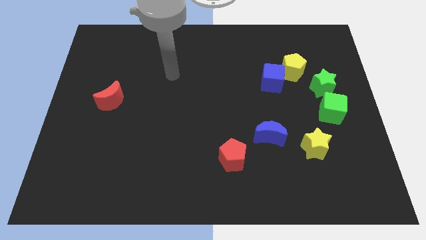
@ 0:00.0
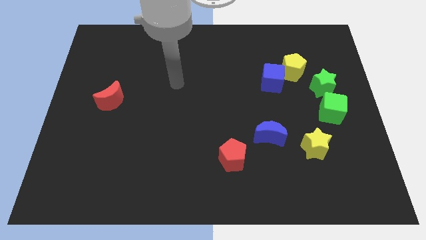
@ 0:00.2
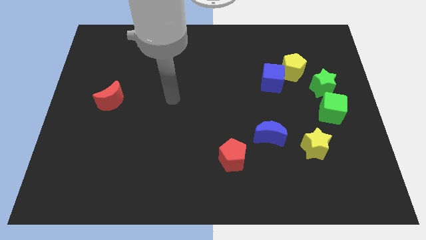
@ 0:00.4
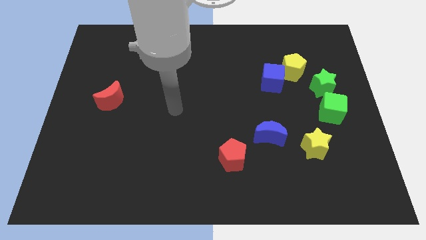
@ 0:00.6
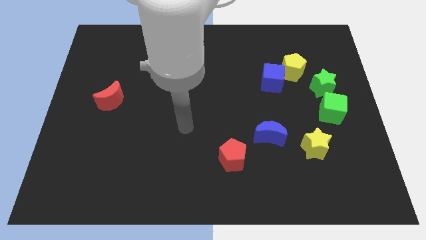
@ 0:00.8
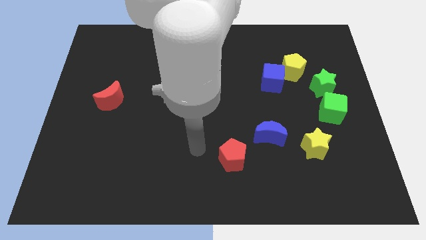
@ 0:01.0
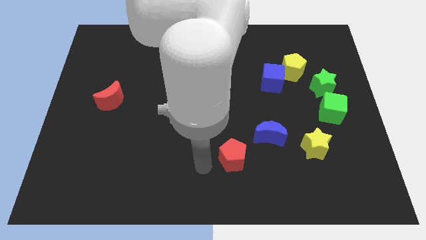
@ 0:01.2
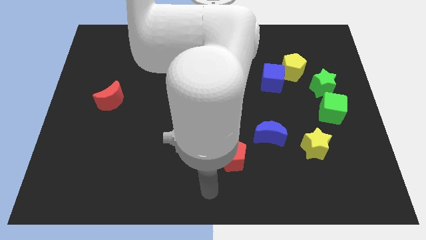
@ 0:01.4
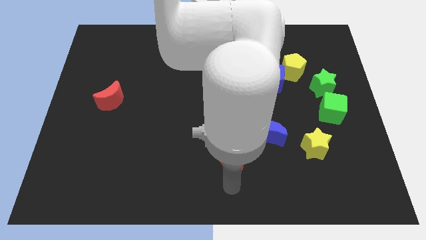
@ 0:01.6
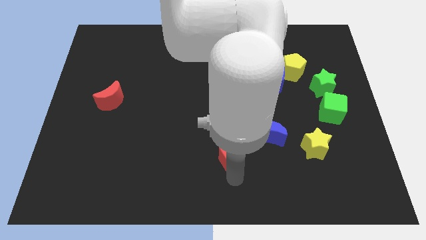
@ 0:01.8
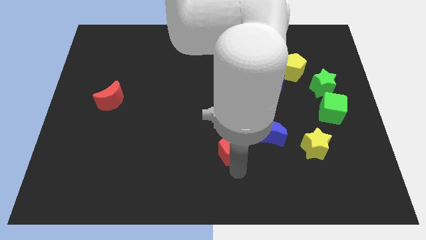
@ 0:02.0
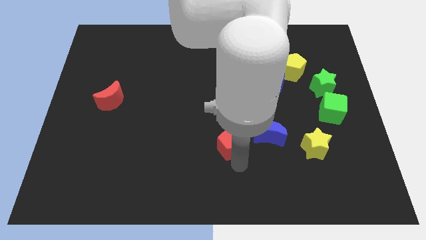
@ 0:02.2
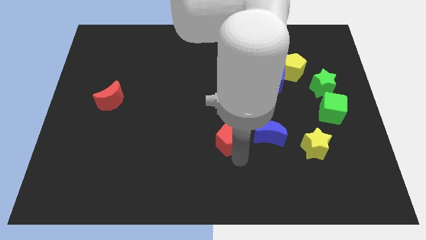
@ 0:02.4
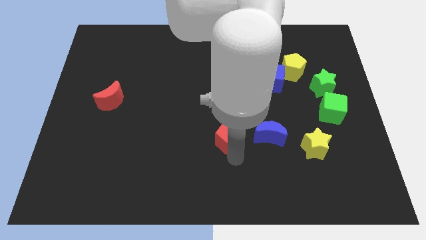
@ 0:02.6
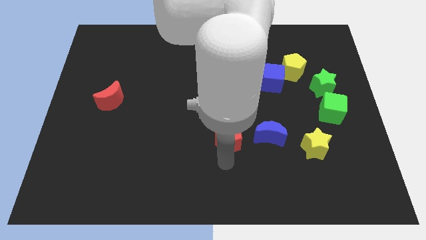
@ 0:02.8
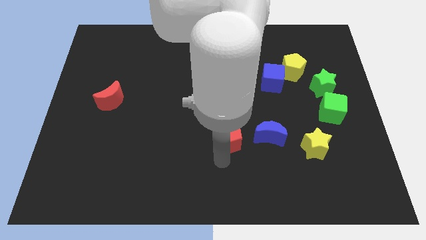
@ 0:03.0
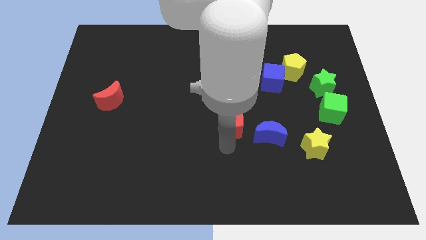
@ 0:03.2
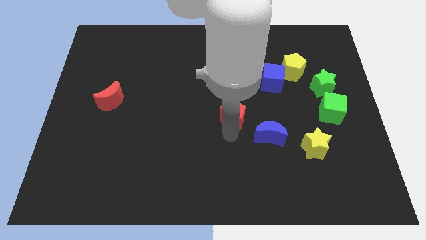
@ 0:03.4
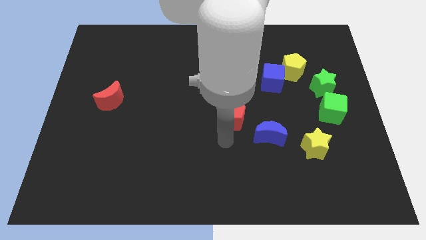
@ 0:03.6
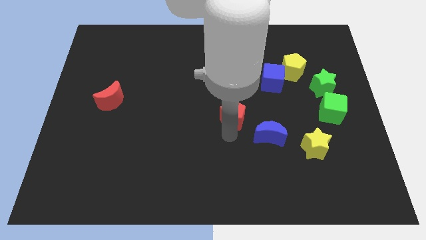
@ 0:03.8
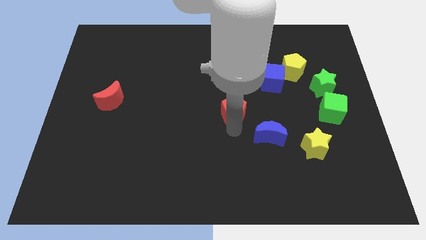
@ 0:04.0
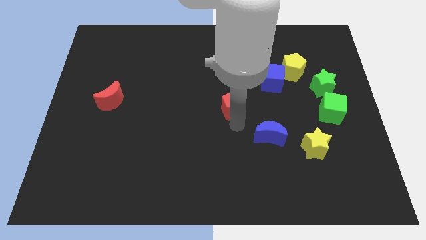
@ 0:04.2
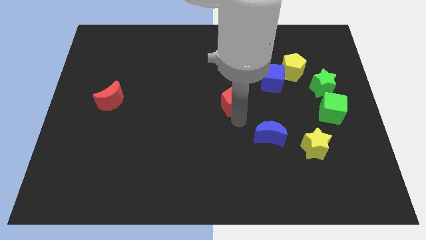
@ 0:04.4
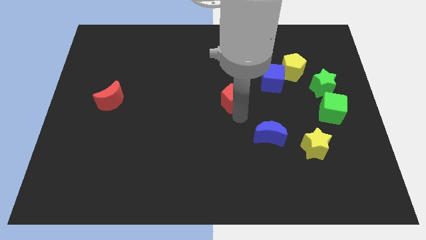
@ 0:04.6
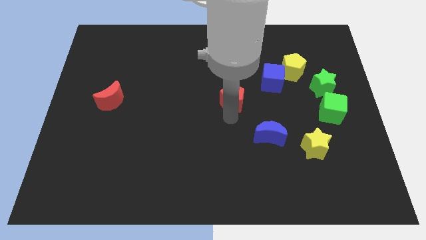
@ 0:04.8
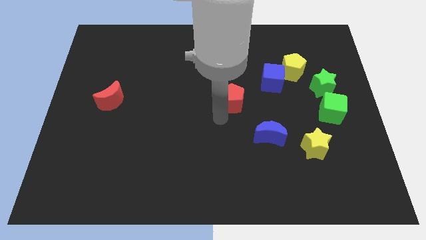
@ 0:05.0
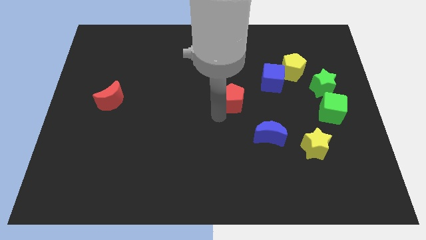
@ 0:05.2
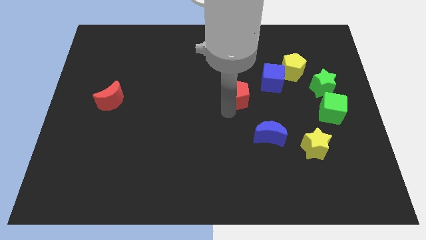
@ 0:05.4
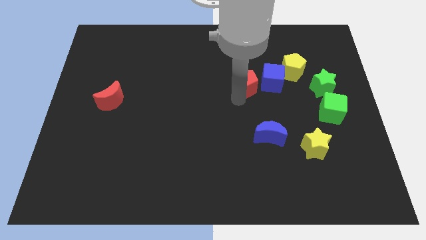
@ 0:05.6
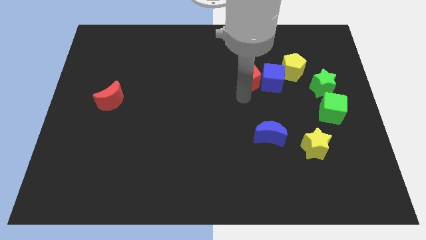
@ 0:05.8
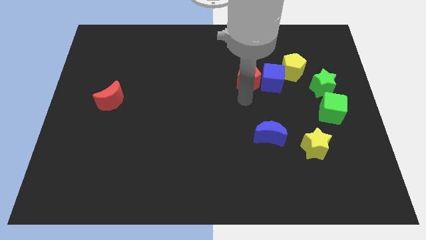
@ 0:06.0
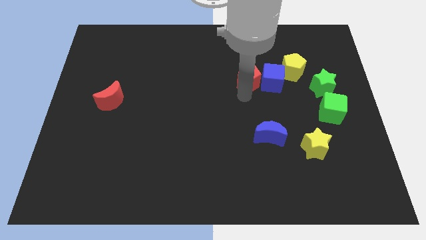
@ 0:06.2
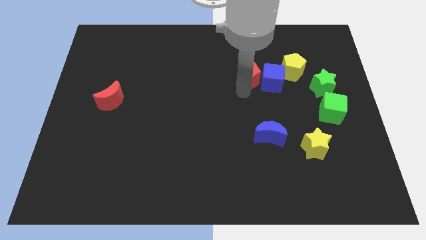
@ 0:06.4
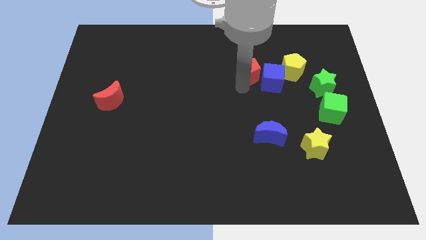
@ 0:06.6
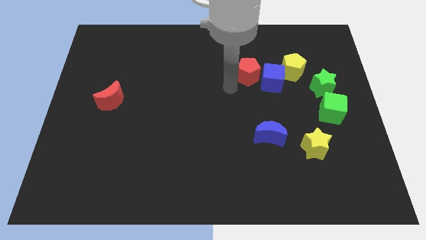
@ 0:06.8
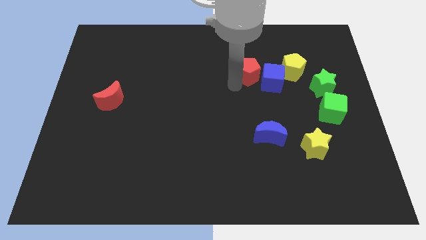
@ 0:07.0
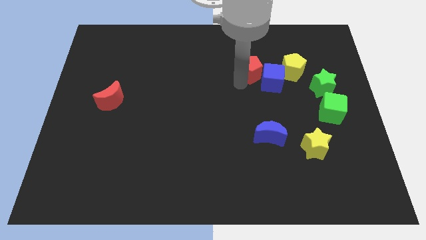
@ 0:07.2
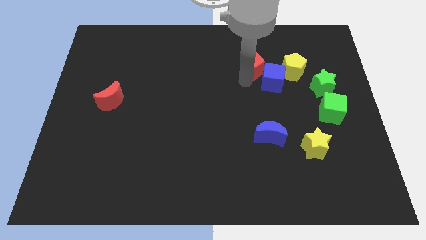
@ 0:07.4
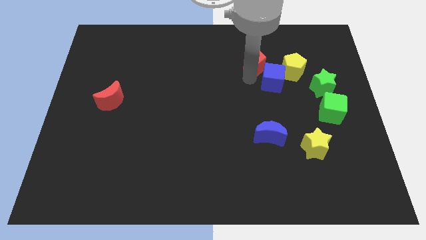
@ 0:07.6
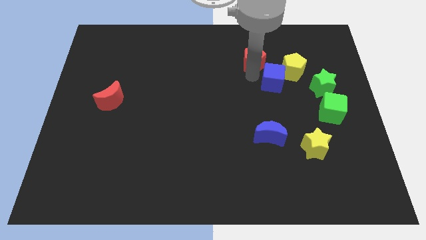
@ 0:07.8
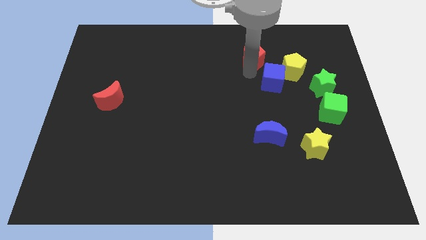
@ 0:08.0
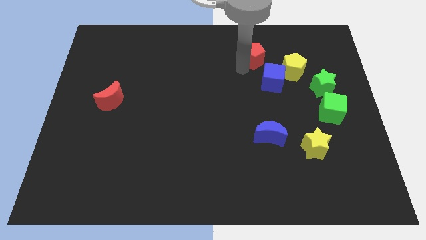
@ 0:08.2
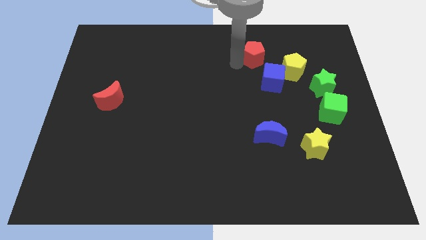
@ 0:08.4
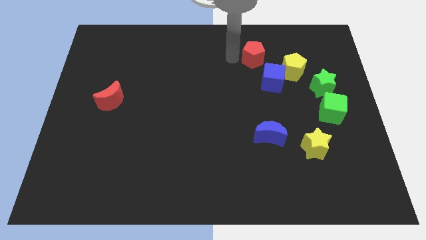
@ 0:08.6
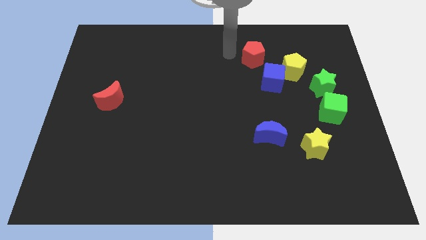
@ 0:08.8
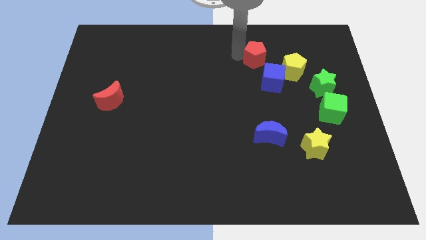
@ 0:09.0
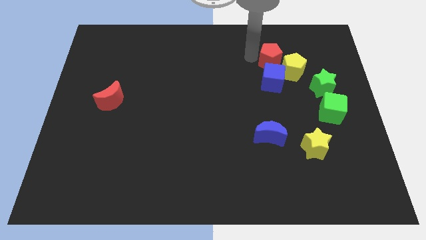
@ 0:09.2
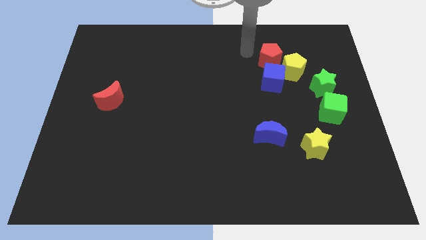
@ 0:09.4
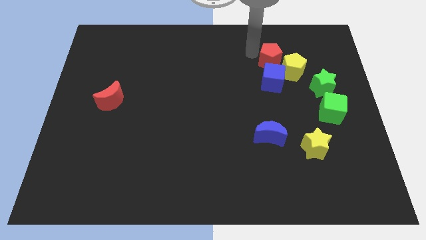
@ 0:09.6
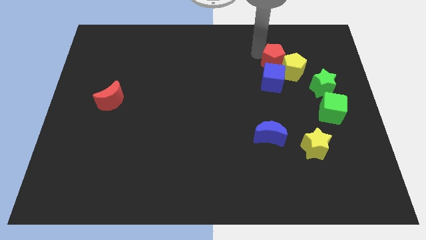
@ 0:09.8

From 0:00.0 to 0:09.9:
slide the red pentagon to the top right side of the blue cube

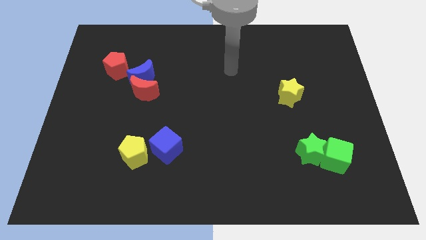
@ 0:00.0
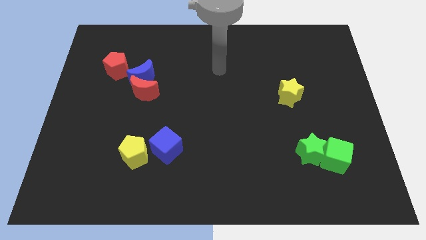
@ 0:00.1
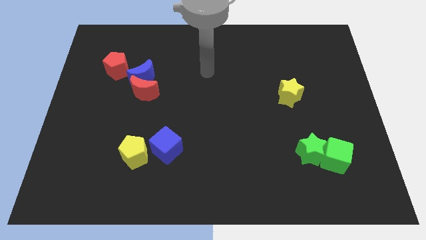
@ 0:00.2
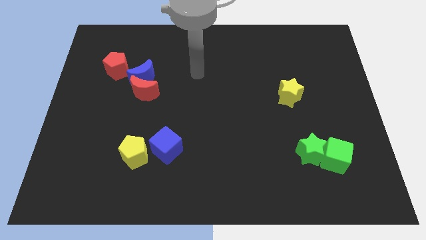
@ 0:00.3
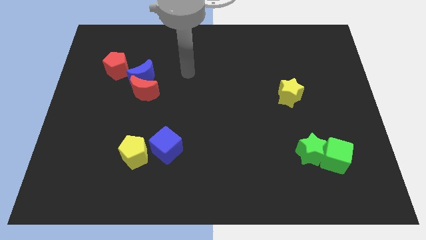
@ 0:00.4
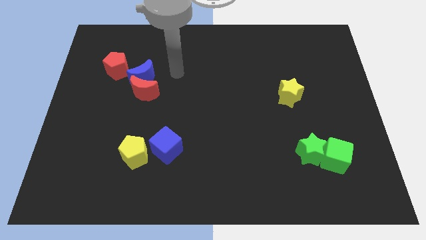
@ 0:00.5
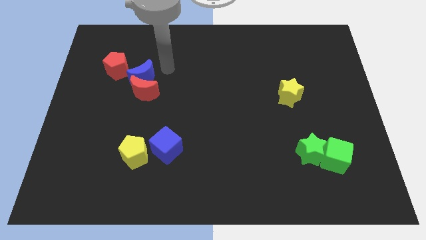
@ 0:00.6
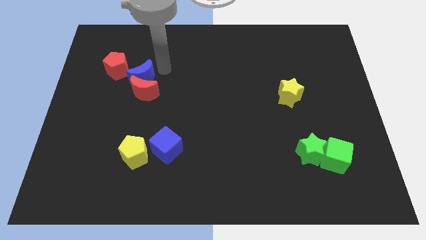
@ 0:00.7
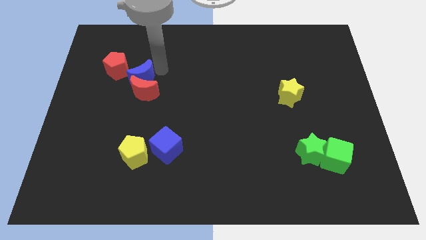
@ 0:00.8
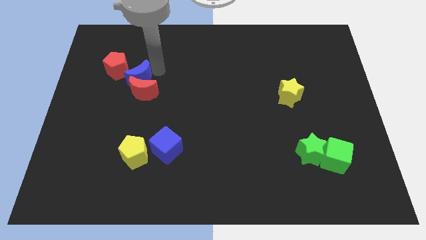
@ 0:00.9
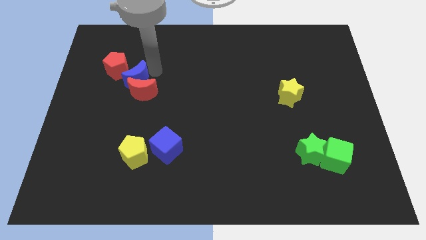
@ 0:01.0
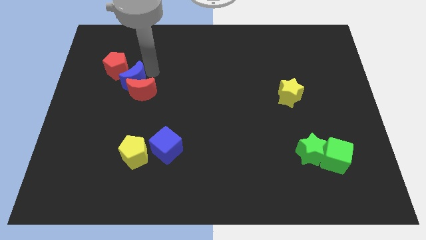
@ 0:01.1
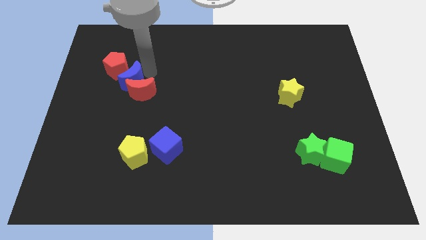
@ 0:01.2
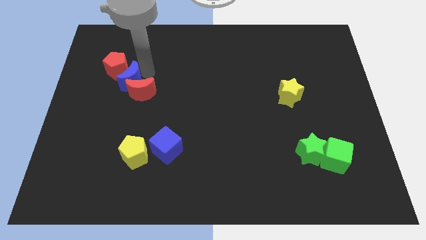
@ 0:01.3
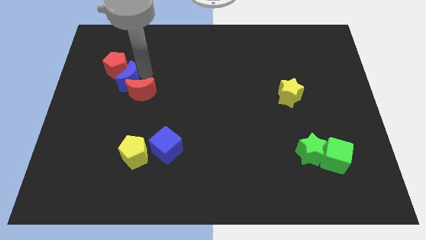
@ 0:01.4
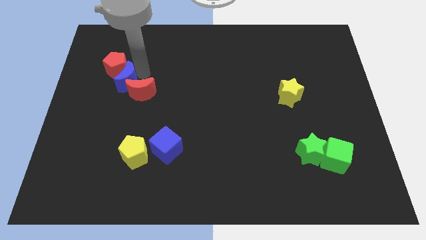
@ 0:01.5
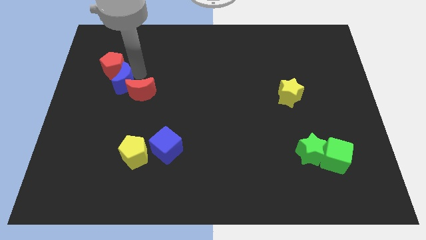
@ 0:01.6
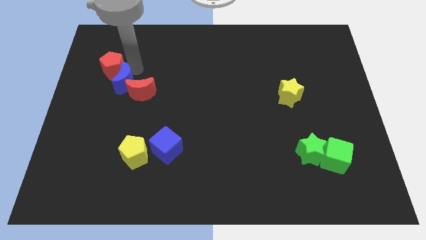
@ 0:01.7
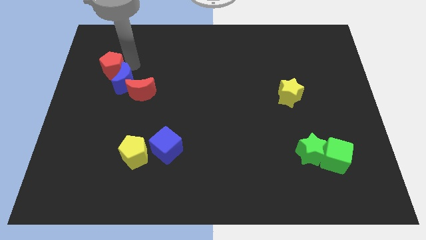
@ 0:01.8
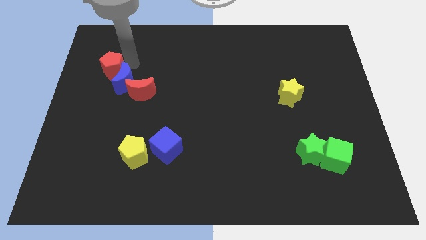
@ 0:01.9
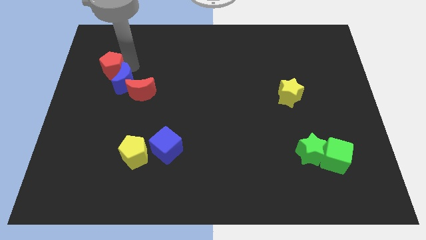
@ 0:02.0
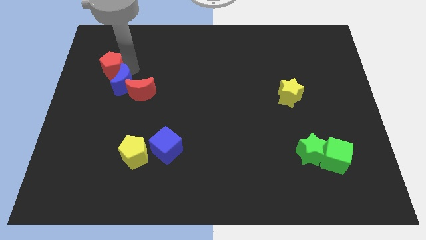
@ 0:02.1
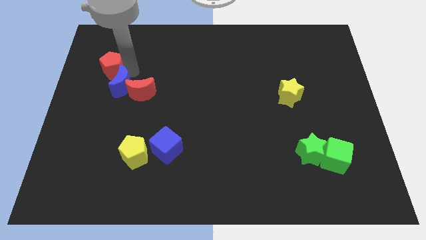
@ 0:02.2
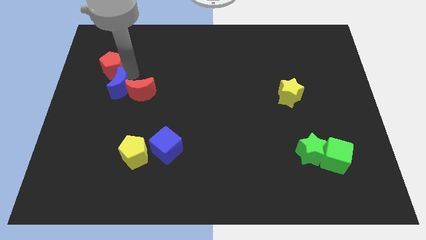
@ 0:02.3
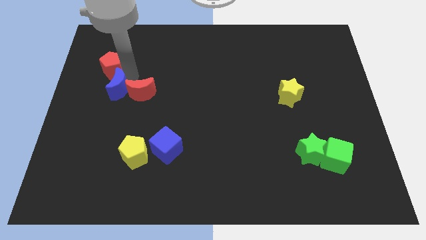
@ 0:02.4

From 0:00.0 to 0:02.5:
put the blue moon diagonally down and to the left of the red moon
